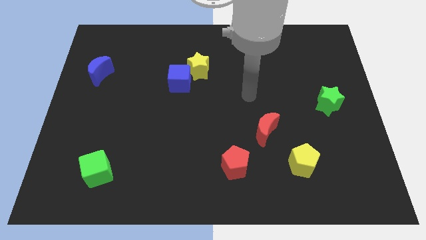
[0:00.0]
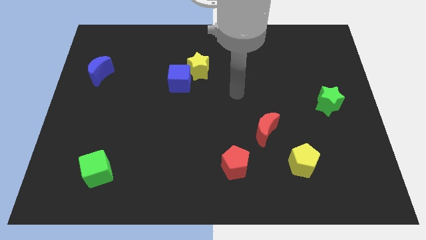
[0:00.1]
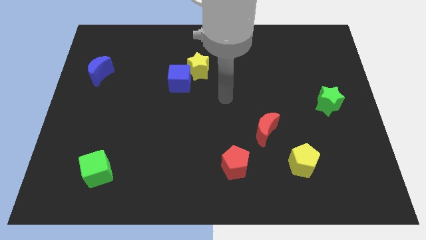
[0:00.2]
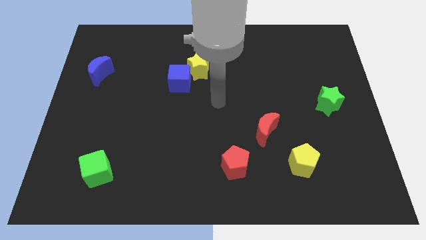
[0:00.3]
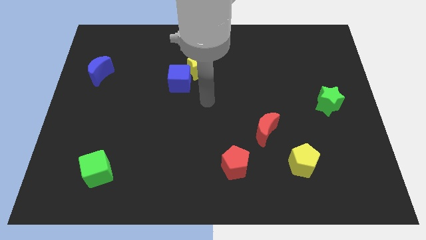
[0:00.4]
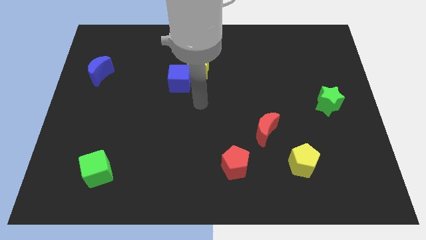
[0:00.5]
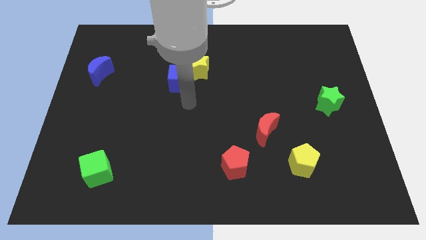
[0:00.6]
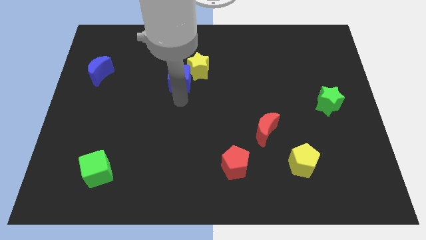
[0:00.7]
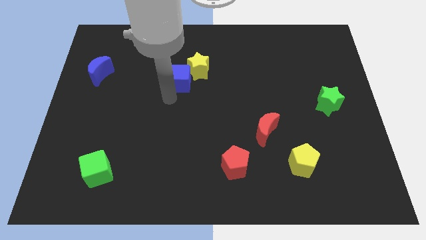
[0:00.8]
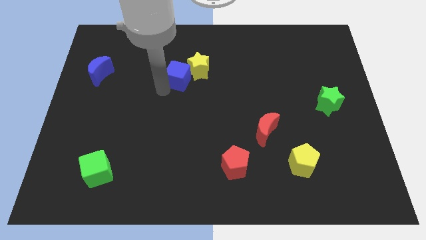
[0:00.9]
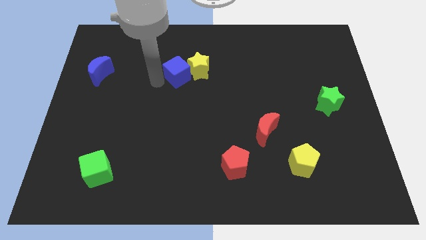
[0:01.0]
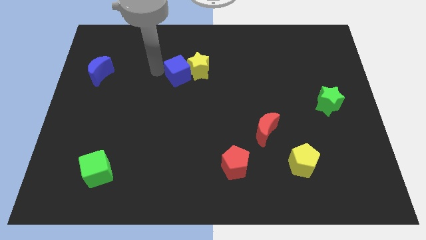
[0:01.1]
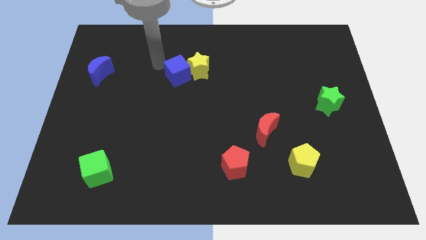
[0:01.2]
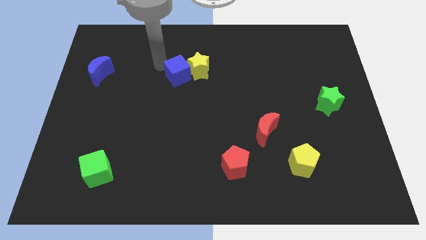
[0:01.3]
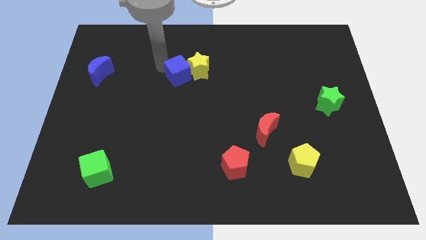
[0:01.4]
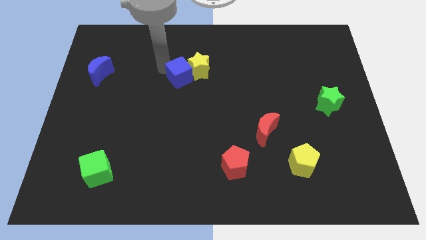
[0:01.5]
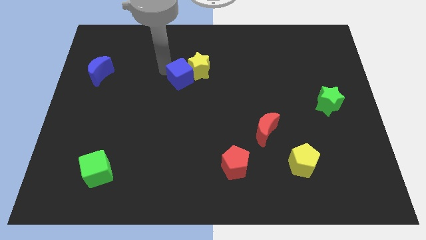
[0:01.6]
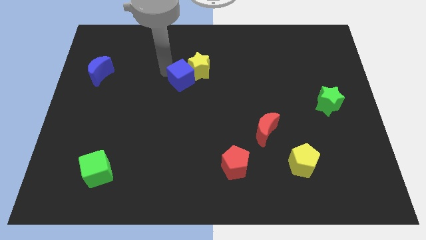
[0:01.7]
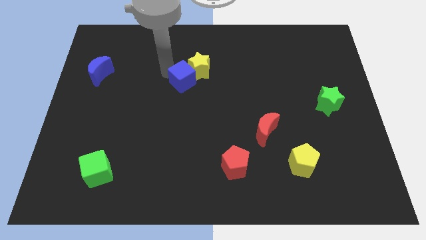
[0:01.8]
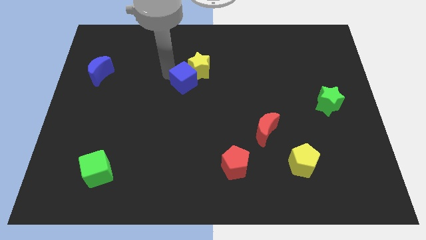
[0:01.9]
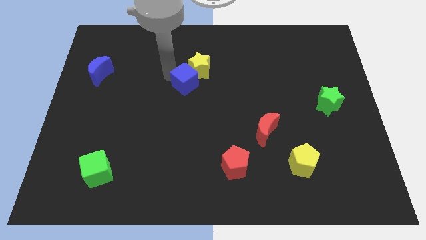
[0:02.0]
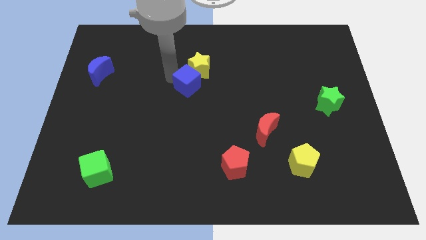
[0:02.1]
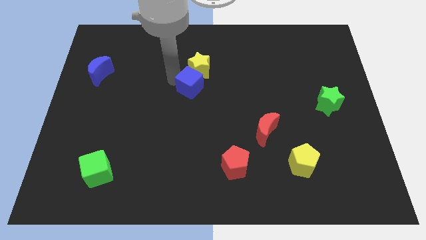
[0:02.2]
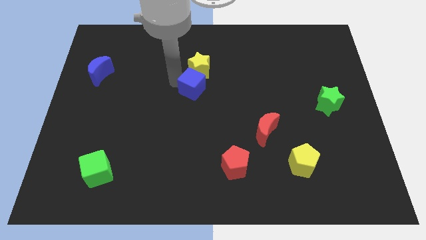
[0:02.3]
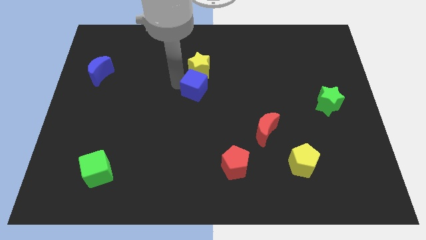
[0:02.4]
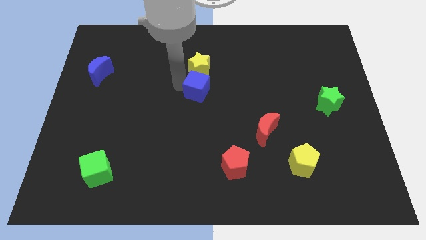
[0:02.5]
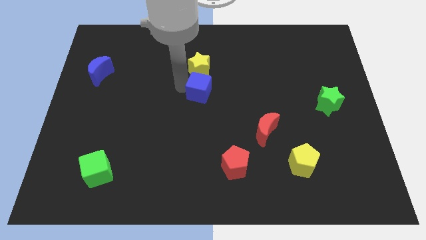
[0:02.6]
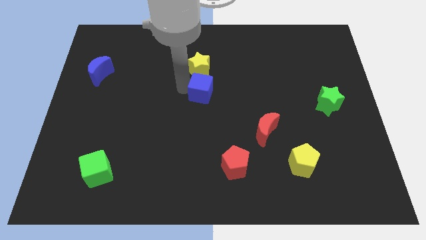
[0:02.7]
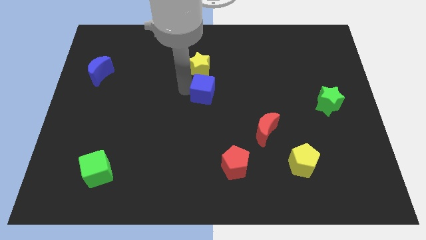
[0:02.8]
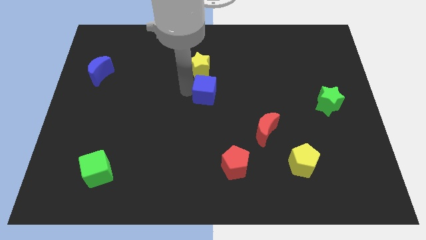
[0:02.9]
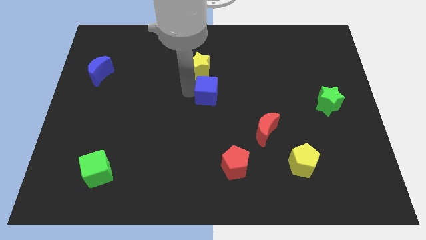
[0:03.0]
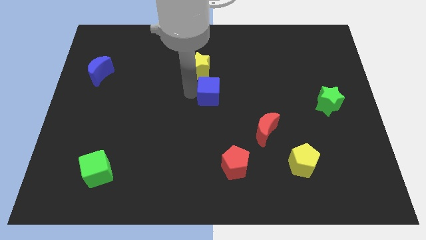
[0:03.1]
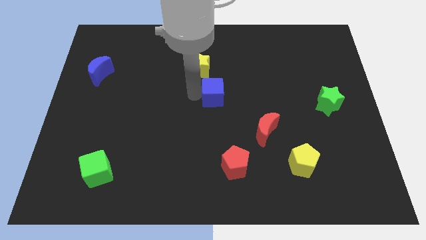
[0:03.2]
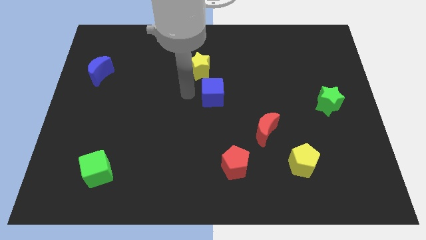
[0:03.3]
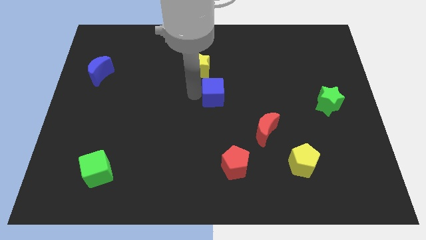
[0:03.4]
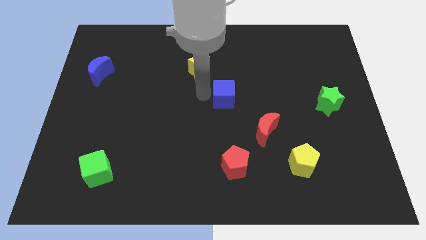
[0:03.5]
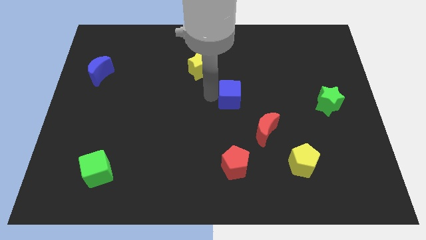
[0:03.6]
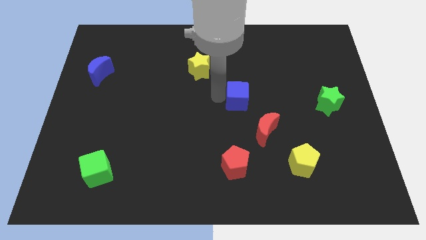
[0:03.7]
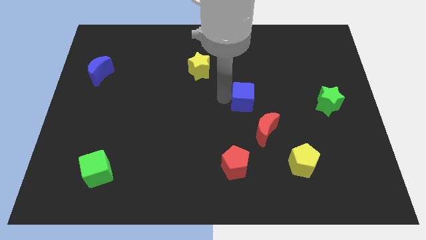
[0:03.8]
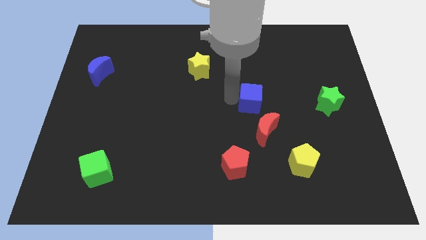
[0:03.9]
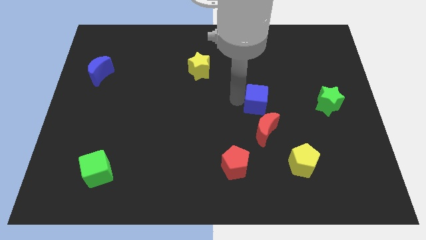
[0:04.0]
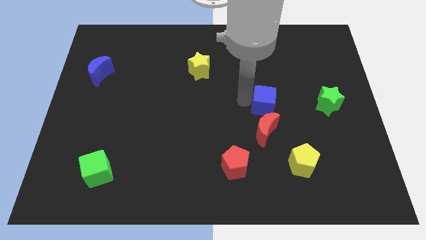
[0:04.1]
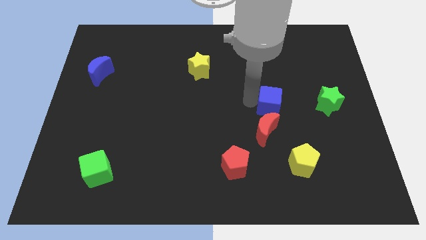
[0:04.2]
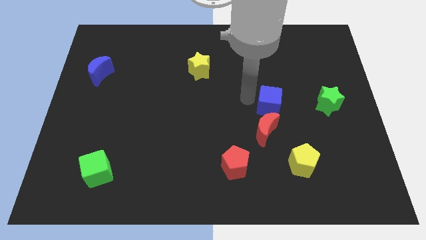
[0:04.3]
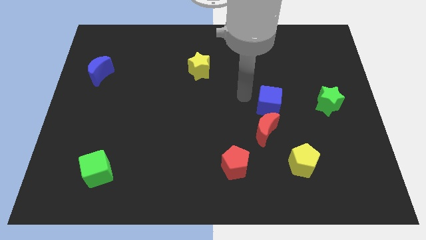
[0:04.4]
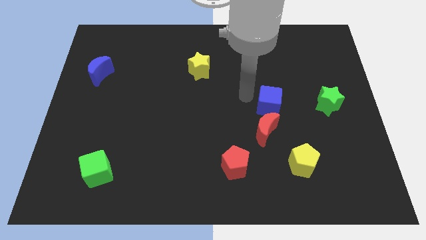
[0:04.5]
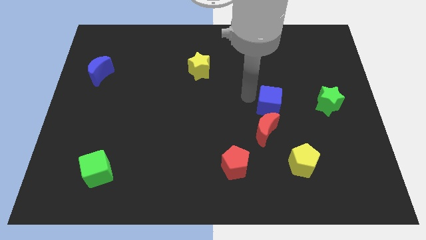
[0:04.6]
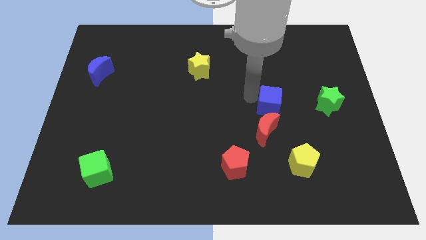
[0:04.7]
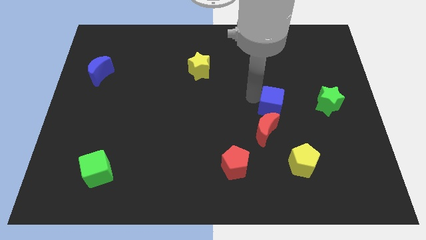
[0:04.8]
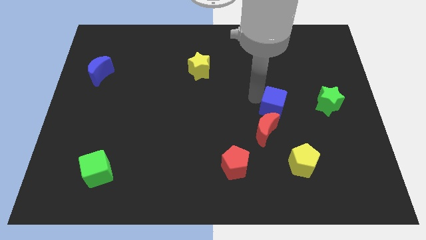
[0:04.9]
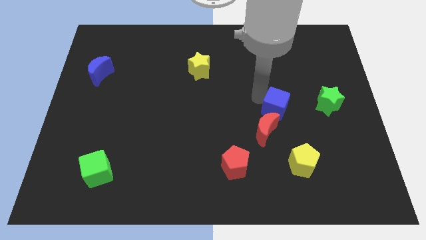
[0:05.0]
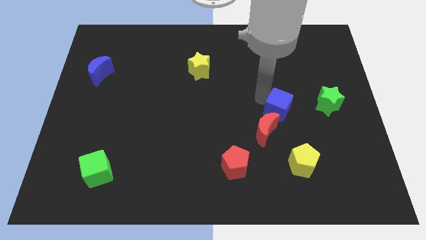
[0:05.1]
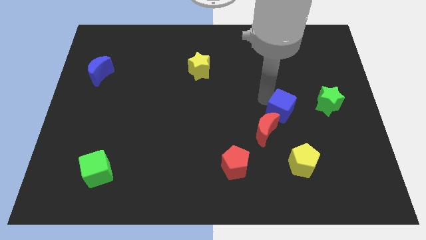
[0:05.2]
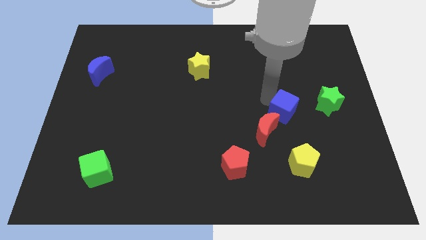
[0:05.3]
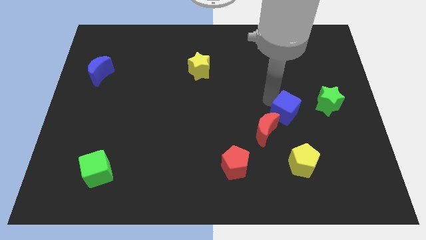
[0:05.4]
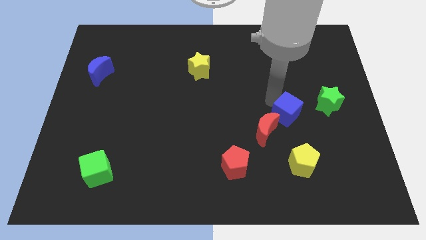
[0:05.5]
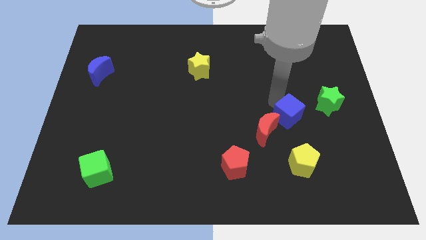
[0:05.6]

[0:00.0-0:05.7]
put the blue cube just right of the red moon
